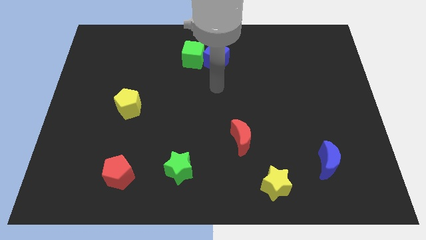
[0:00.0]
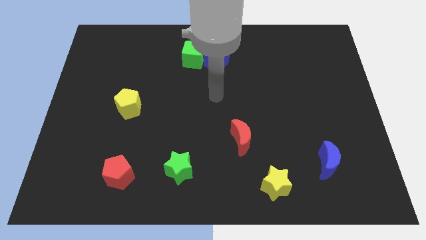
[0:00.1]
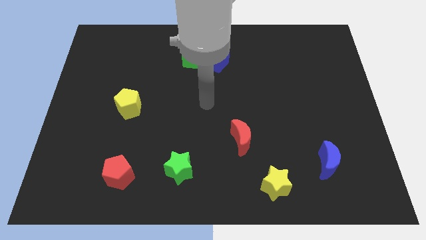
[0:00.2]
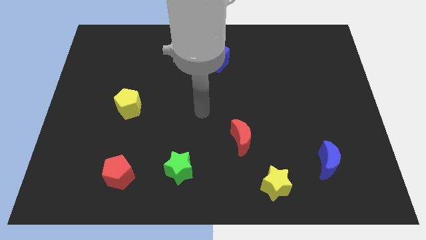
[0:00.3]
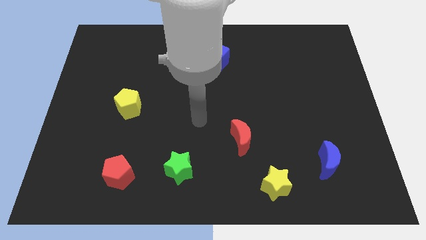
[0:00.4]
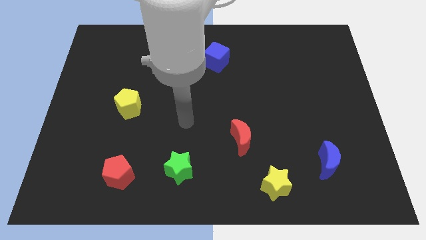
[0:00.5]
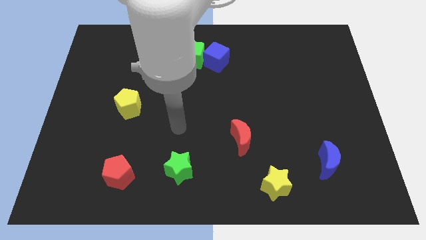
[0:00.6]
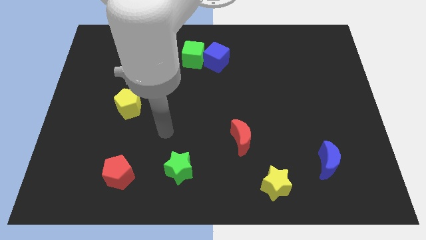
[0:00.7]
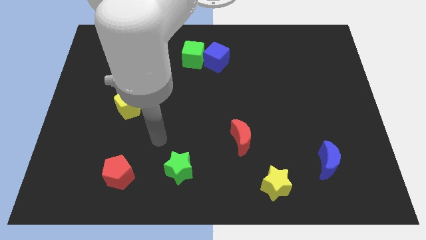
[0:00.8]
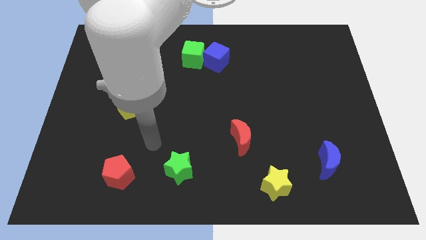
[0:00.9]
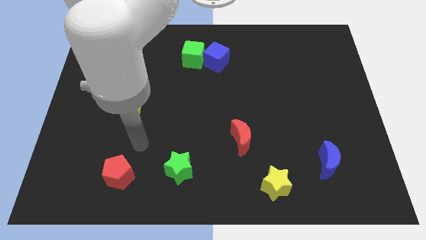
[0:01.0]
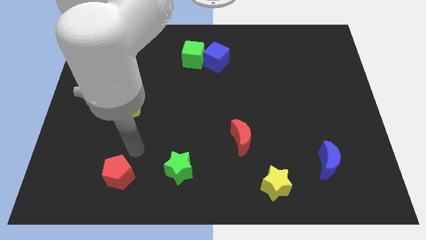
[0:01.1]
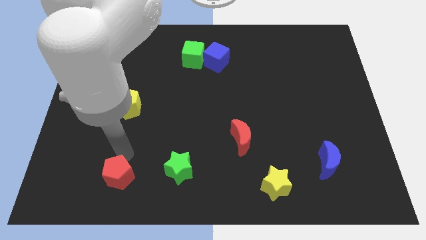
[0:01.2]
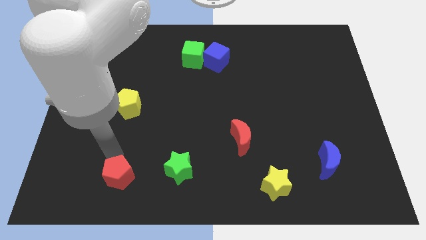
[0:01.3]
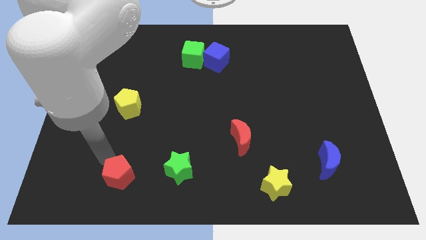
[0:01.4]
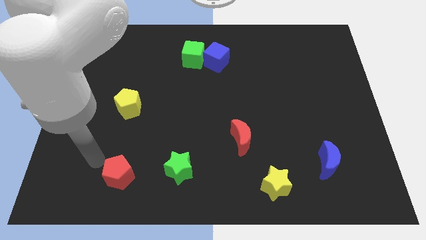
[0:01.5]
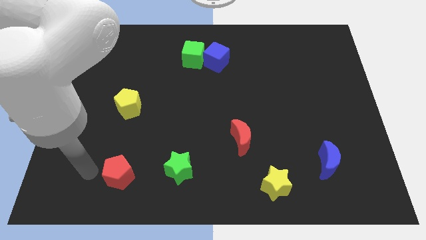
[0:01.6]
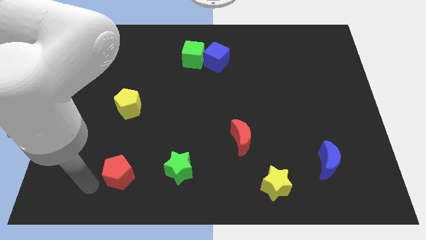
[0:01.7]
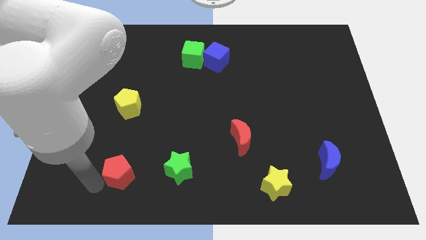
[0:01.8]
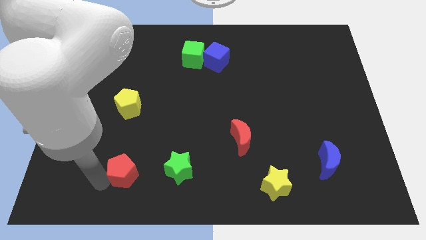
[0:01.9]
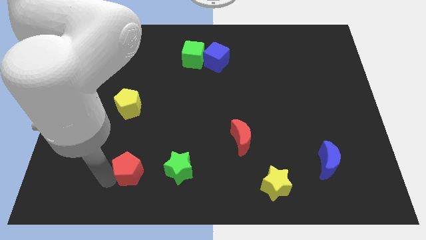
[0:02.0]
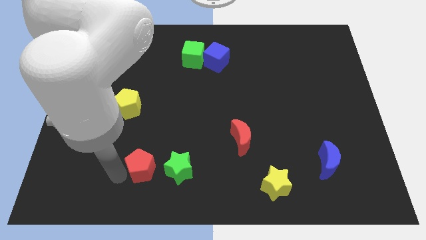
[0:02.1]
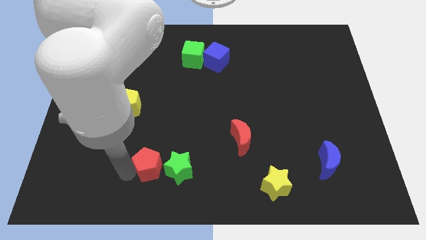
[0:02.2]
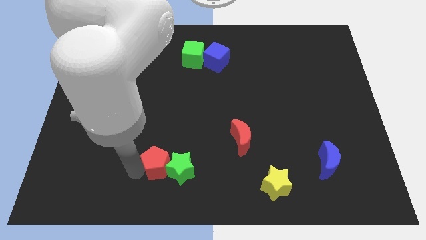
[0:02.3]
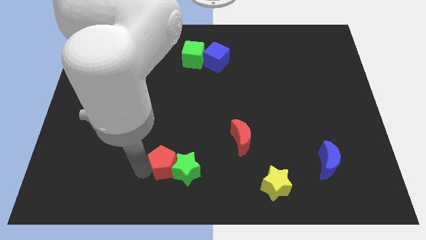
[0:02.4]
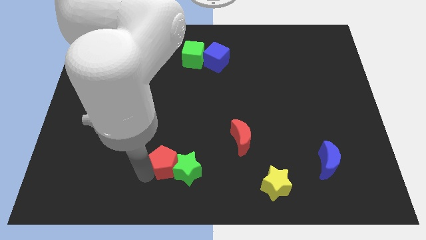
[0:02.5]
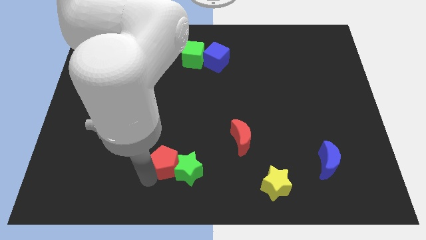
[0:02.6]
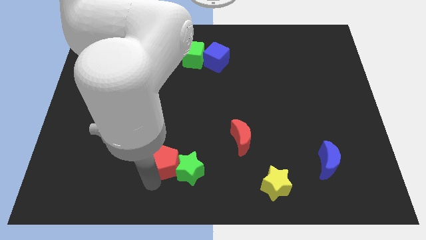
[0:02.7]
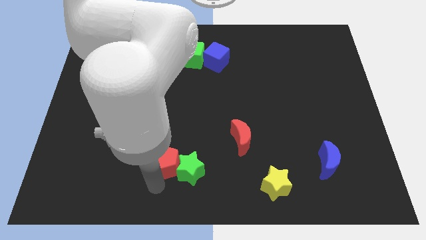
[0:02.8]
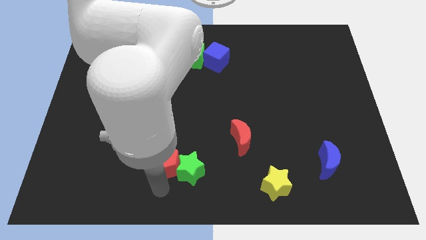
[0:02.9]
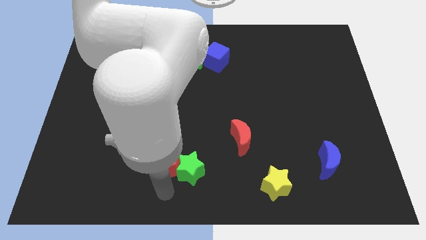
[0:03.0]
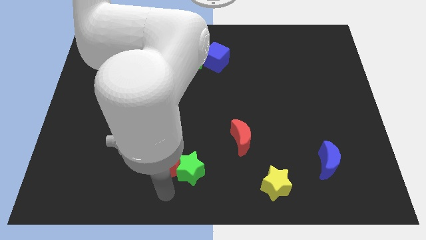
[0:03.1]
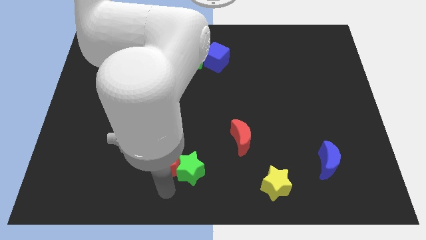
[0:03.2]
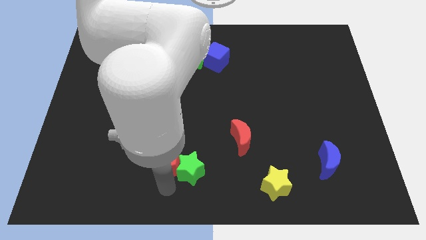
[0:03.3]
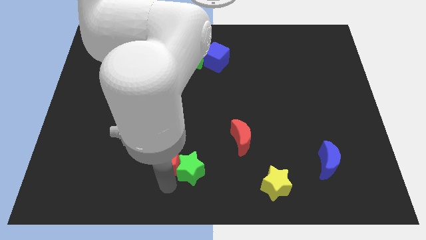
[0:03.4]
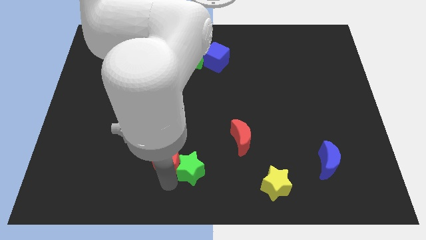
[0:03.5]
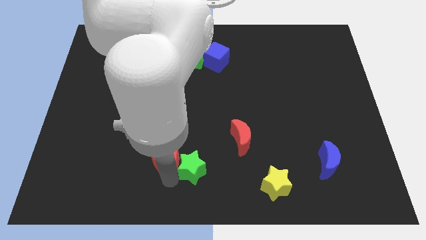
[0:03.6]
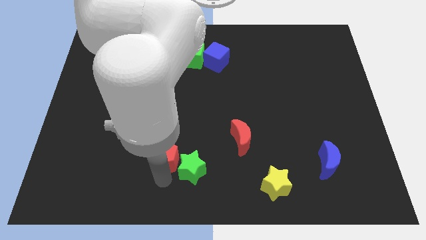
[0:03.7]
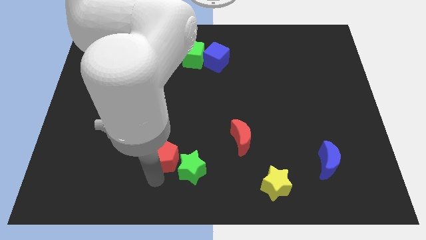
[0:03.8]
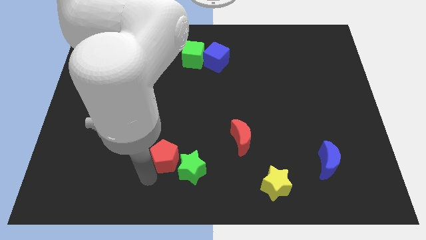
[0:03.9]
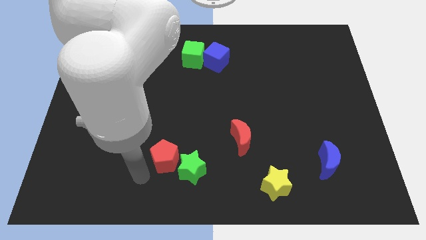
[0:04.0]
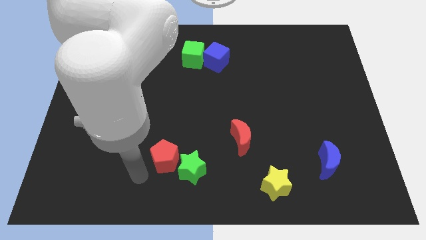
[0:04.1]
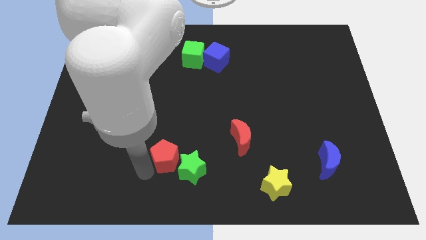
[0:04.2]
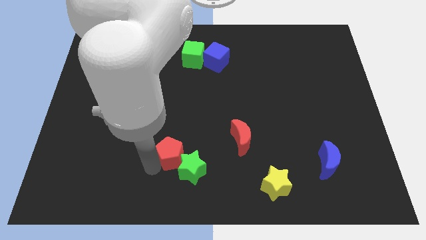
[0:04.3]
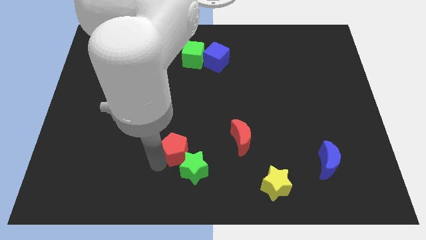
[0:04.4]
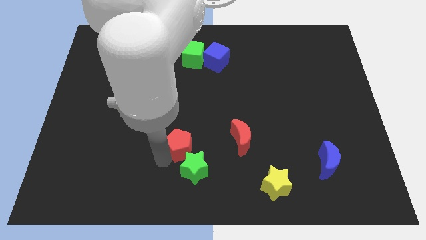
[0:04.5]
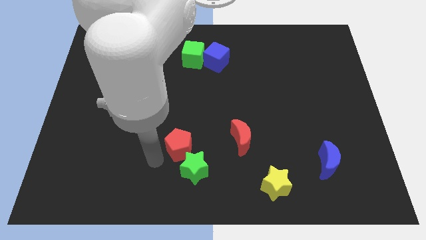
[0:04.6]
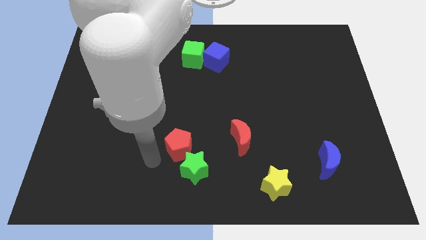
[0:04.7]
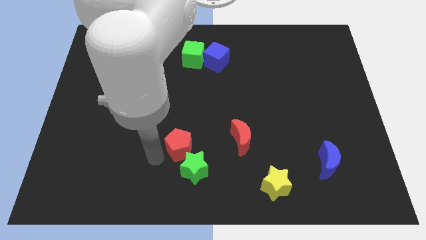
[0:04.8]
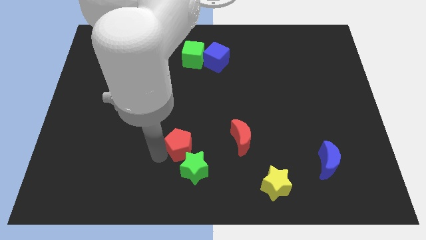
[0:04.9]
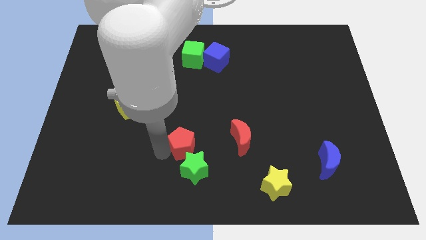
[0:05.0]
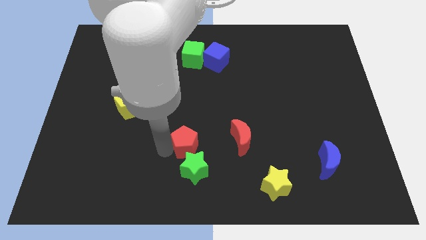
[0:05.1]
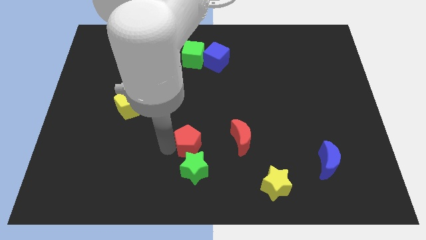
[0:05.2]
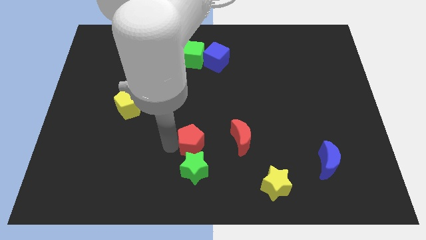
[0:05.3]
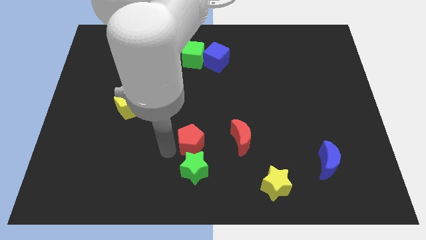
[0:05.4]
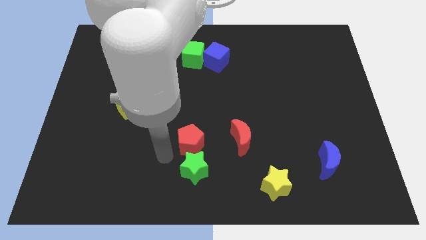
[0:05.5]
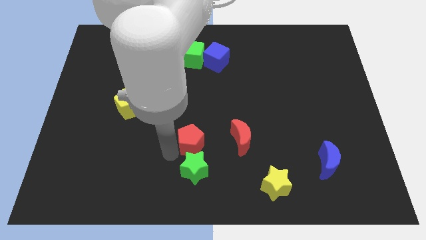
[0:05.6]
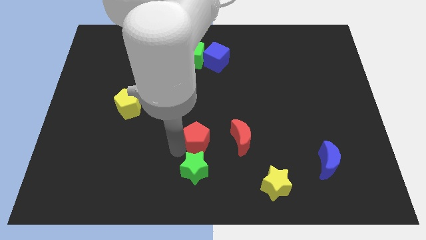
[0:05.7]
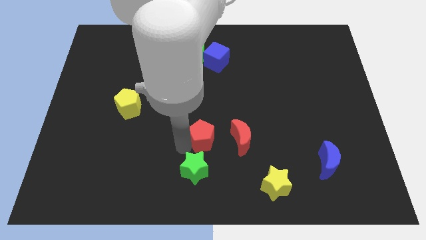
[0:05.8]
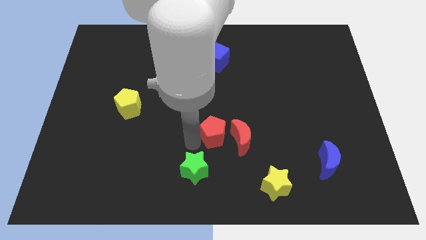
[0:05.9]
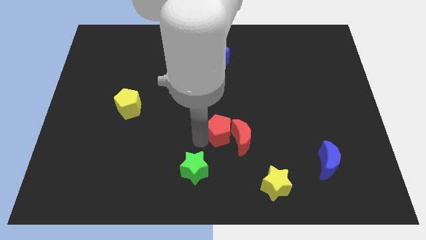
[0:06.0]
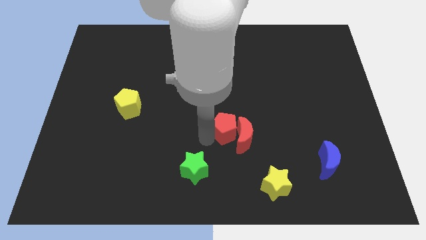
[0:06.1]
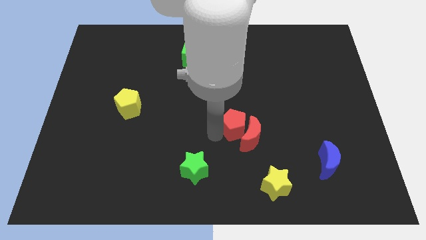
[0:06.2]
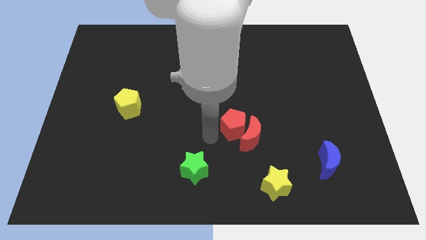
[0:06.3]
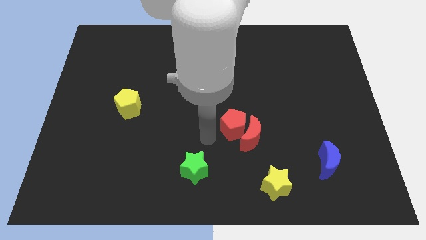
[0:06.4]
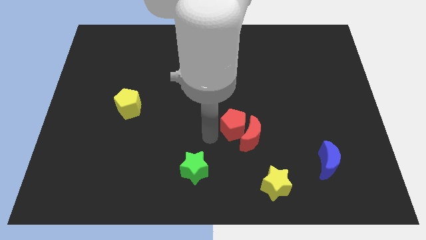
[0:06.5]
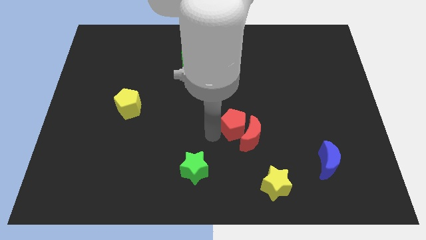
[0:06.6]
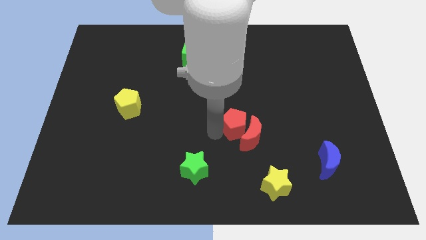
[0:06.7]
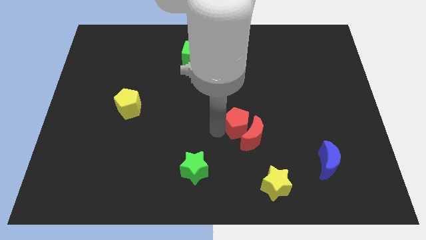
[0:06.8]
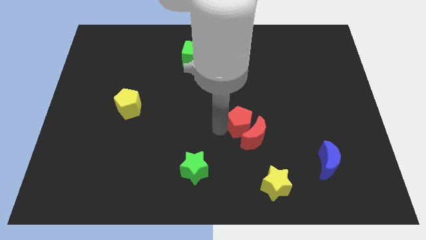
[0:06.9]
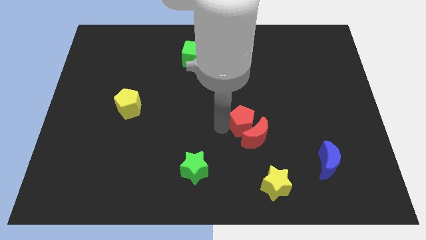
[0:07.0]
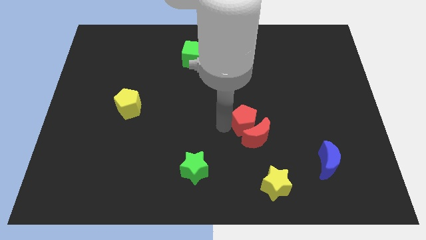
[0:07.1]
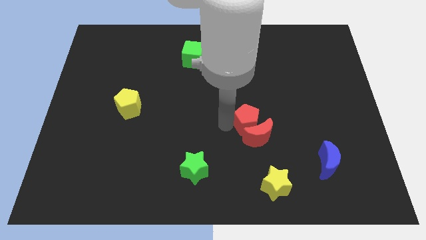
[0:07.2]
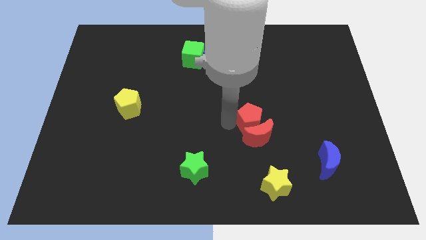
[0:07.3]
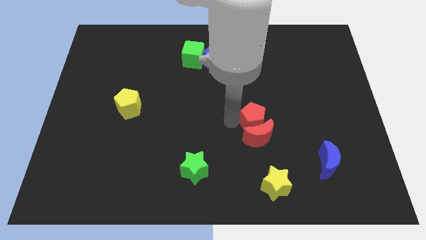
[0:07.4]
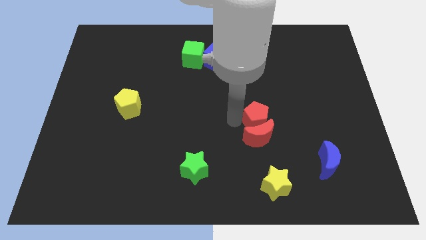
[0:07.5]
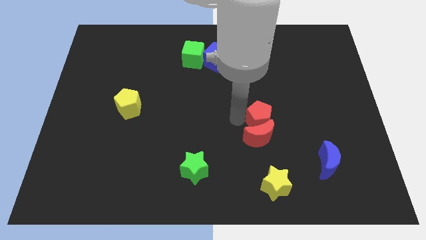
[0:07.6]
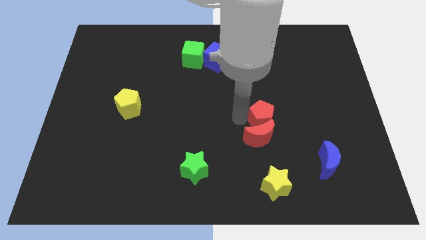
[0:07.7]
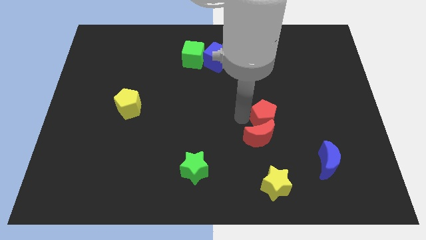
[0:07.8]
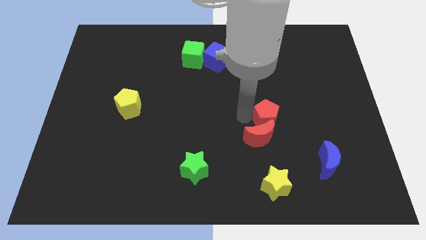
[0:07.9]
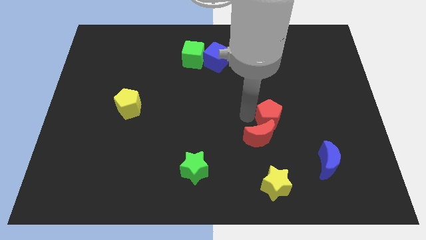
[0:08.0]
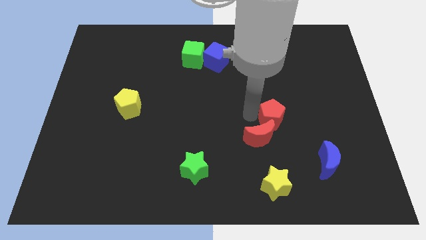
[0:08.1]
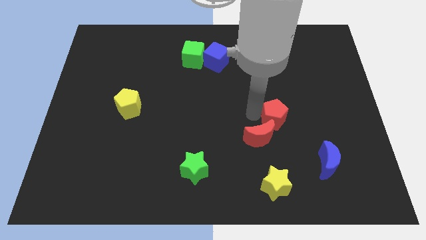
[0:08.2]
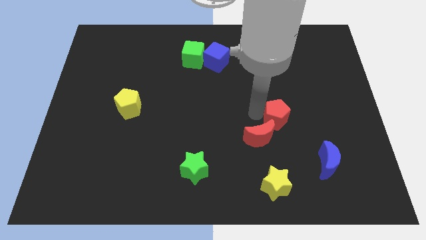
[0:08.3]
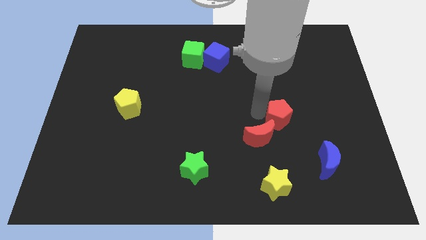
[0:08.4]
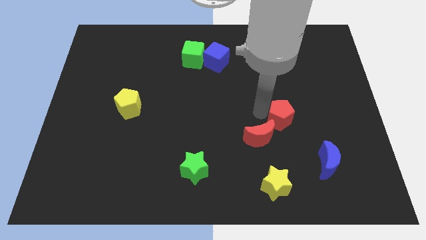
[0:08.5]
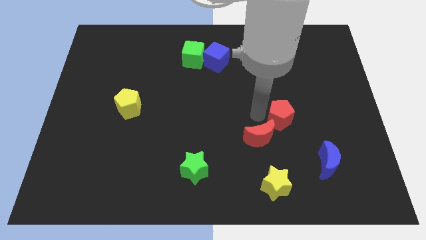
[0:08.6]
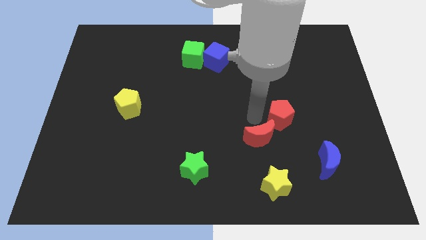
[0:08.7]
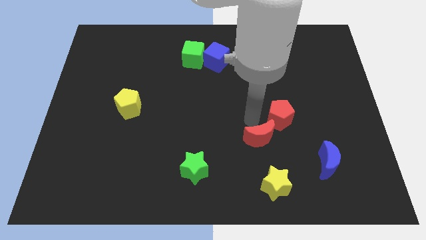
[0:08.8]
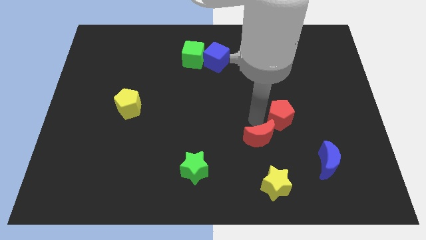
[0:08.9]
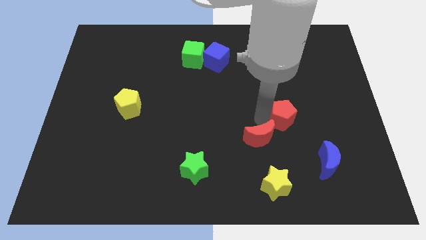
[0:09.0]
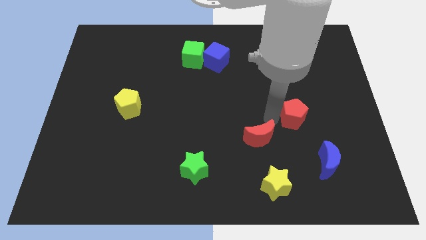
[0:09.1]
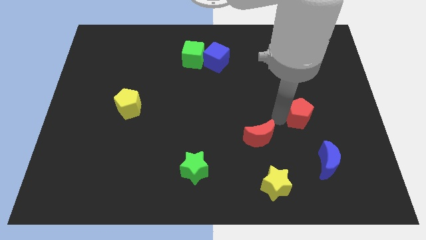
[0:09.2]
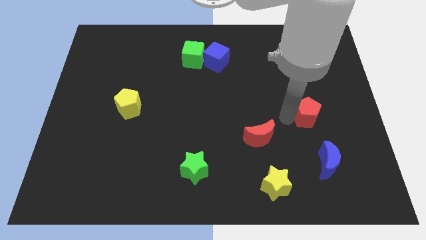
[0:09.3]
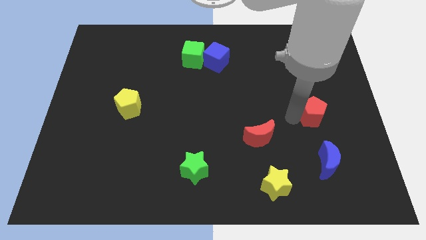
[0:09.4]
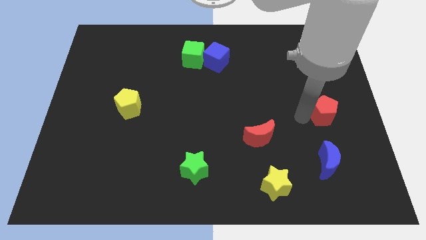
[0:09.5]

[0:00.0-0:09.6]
slide the red pentagon to the right side
